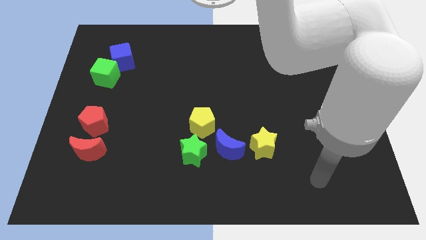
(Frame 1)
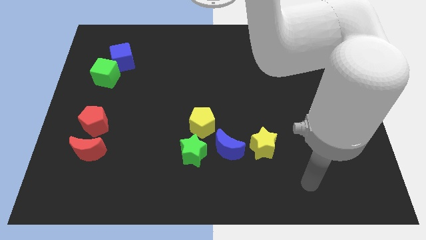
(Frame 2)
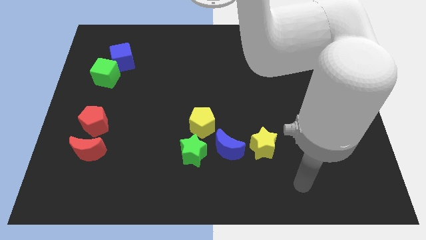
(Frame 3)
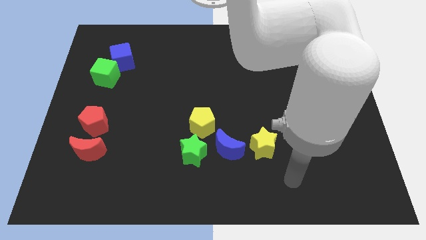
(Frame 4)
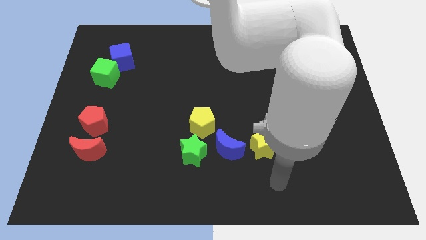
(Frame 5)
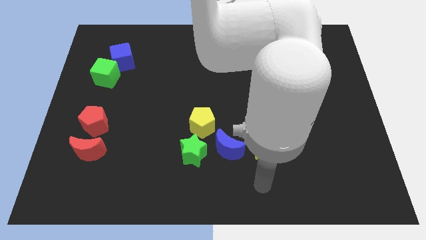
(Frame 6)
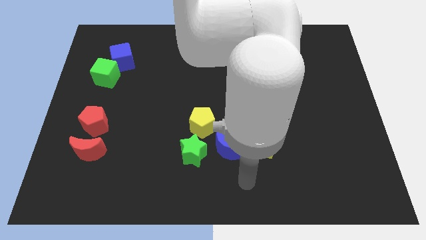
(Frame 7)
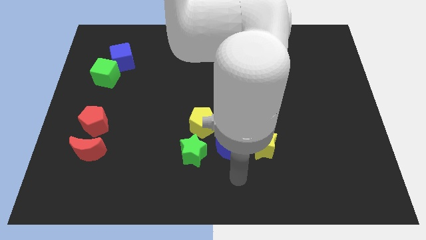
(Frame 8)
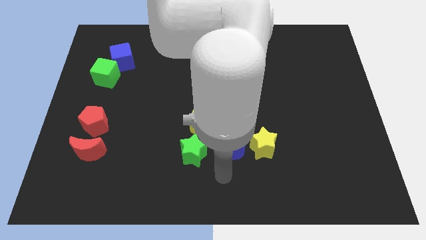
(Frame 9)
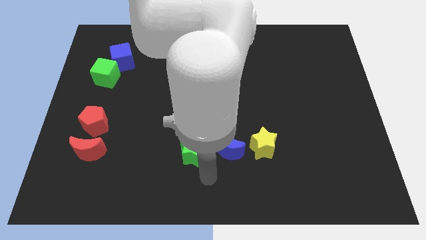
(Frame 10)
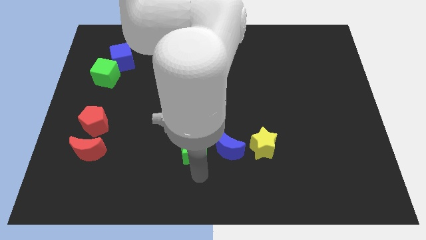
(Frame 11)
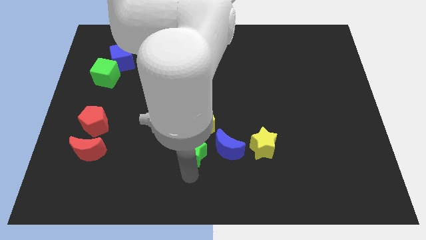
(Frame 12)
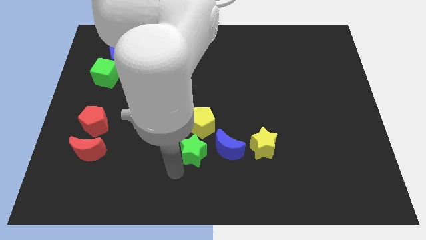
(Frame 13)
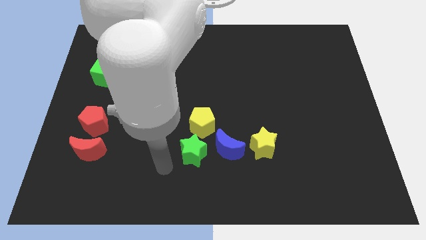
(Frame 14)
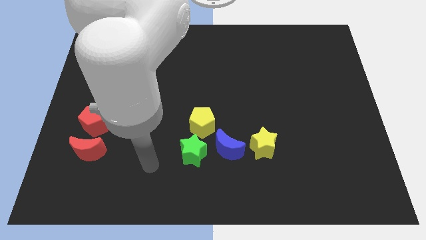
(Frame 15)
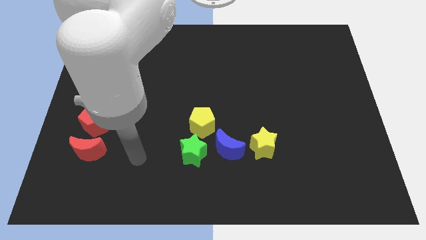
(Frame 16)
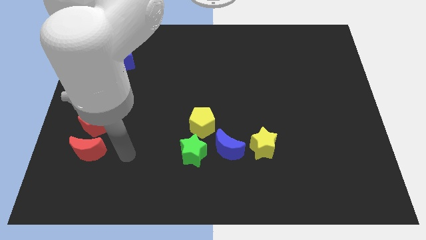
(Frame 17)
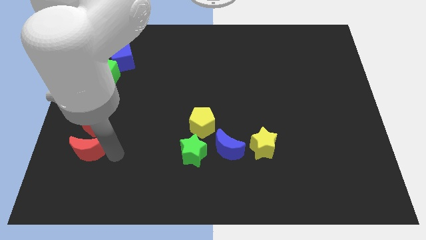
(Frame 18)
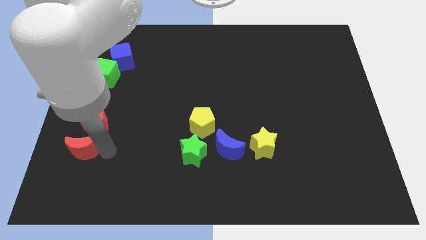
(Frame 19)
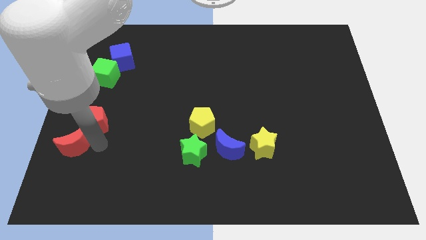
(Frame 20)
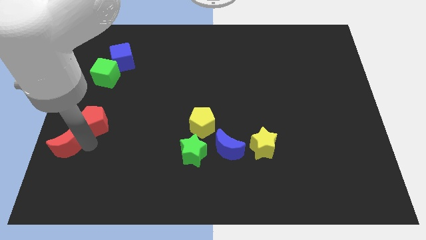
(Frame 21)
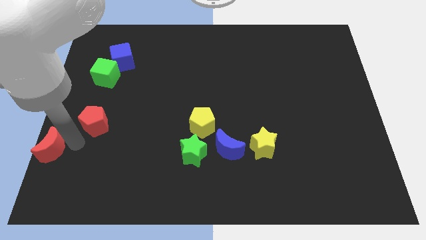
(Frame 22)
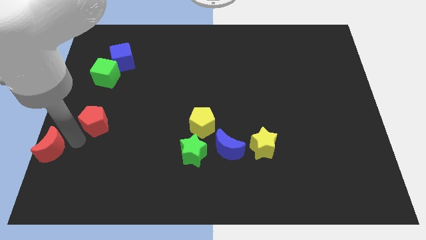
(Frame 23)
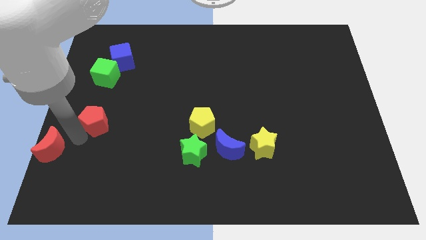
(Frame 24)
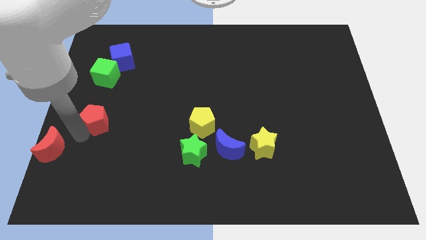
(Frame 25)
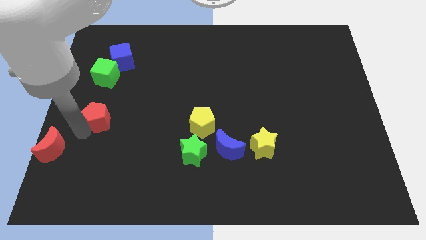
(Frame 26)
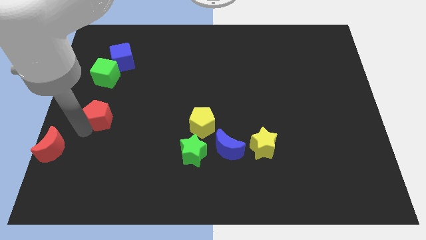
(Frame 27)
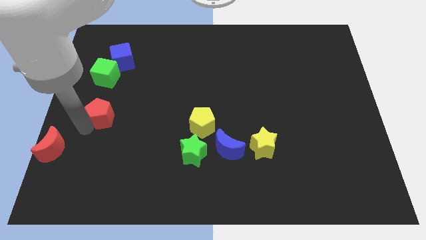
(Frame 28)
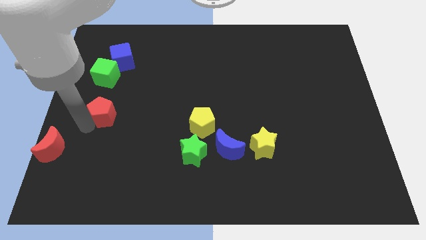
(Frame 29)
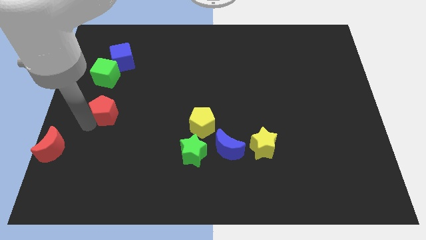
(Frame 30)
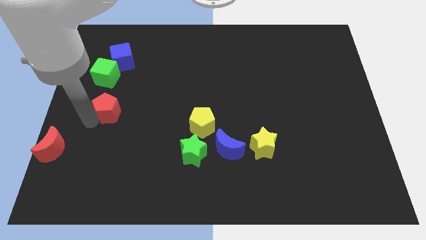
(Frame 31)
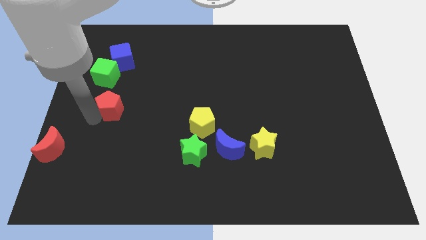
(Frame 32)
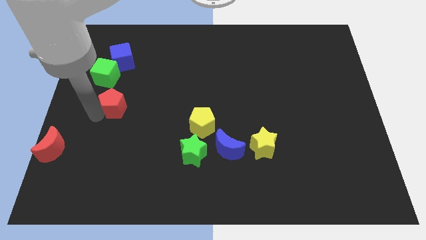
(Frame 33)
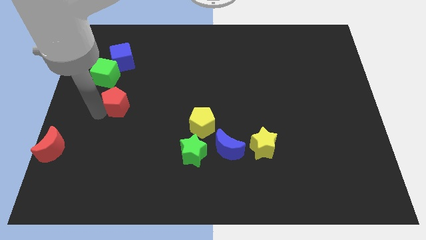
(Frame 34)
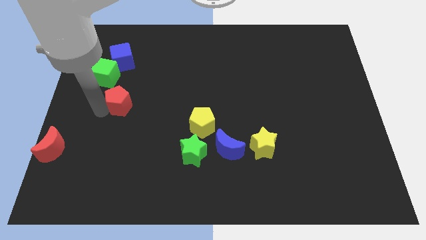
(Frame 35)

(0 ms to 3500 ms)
slightly move the red pentagon upwards and right diagonally

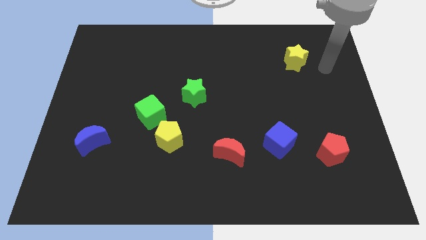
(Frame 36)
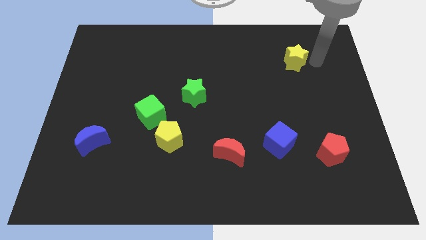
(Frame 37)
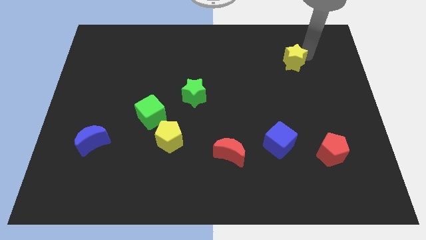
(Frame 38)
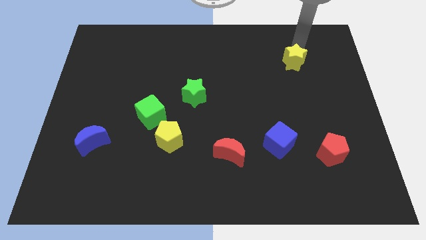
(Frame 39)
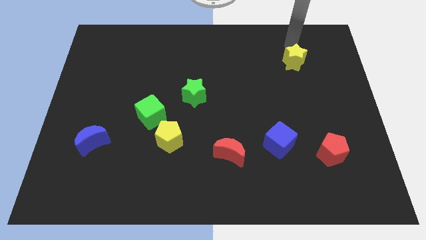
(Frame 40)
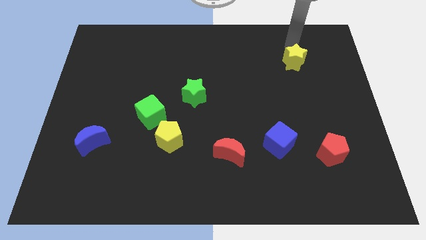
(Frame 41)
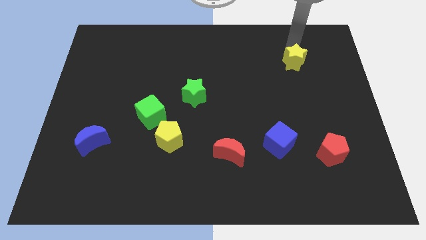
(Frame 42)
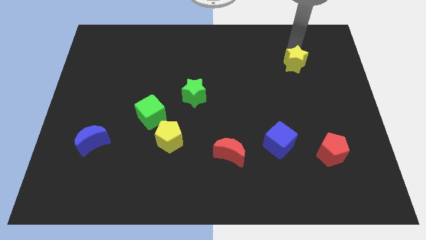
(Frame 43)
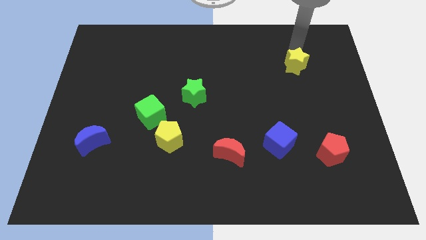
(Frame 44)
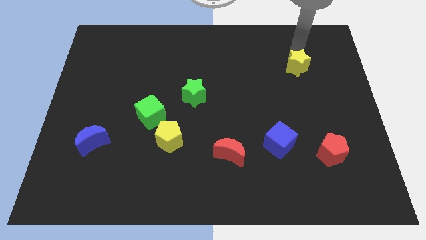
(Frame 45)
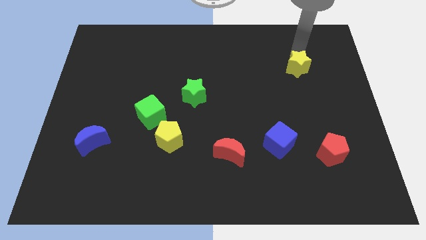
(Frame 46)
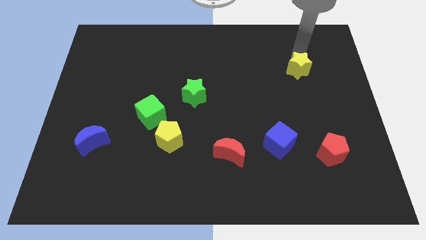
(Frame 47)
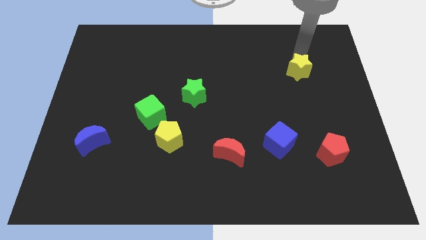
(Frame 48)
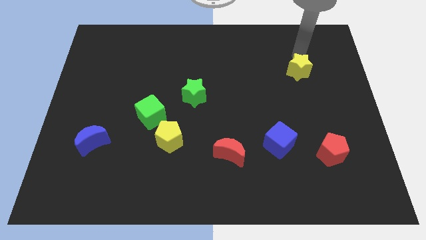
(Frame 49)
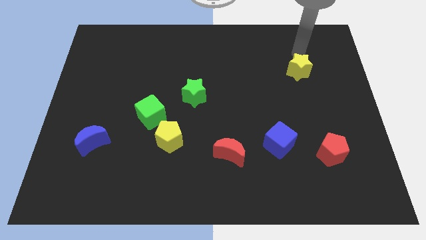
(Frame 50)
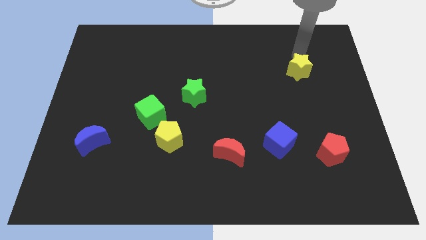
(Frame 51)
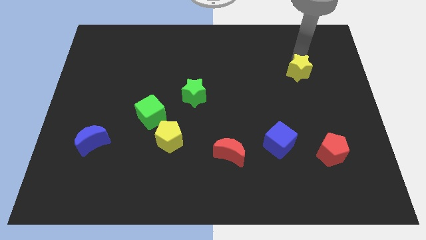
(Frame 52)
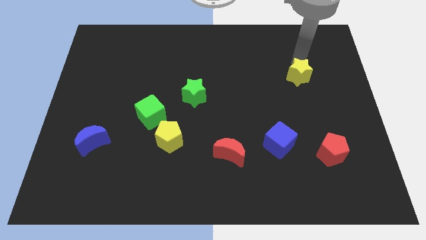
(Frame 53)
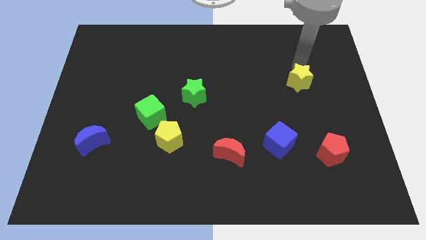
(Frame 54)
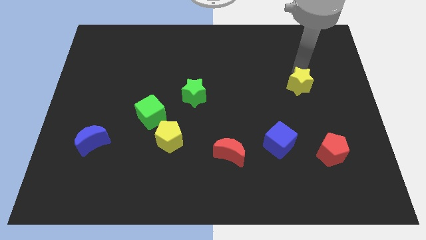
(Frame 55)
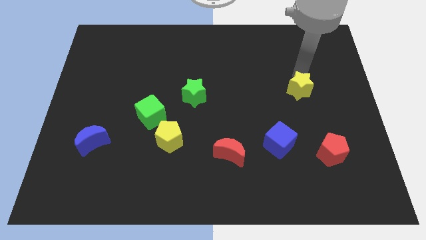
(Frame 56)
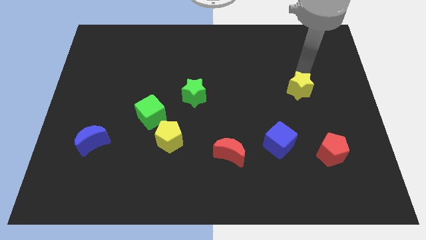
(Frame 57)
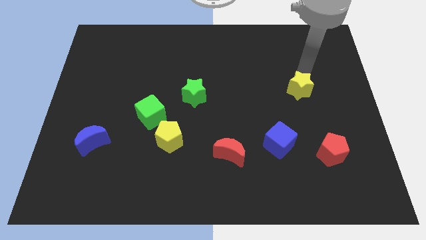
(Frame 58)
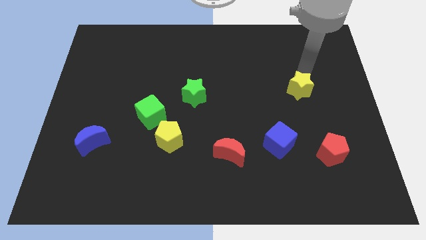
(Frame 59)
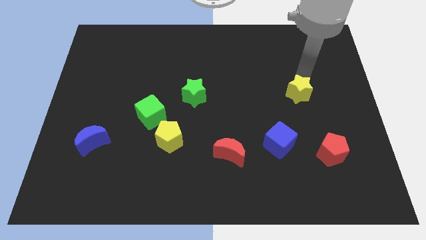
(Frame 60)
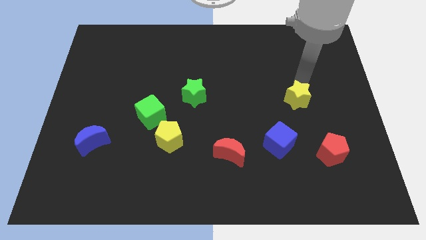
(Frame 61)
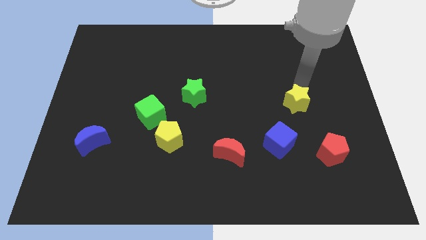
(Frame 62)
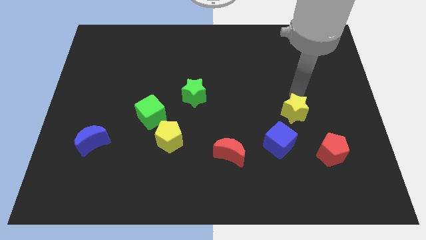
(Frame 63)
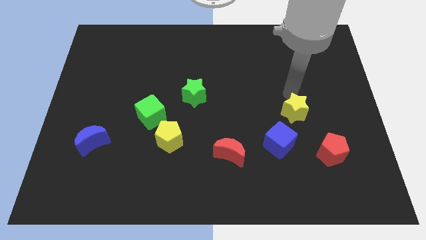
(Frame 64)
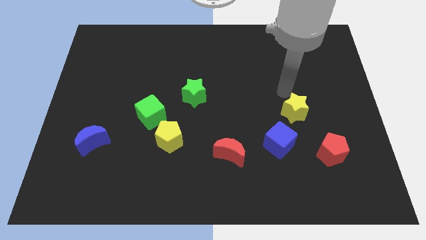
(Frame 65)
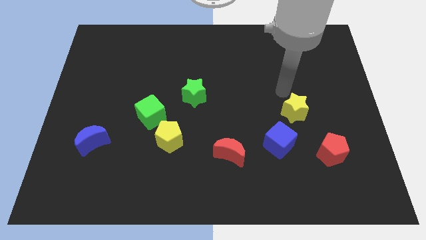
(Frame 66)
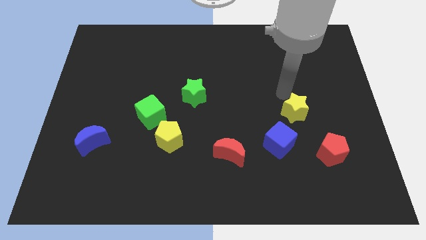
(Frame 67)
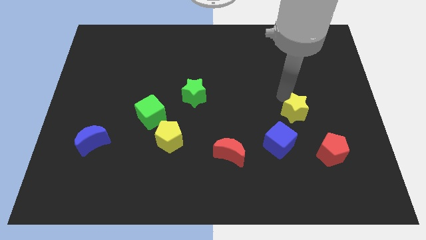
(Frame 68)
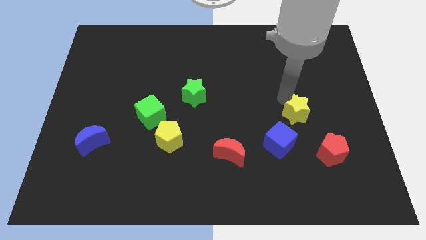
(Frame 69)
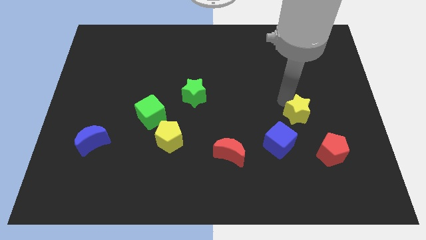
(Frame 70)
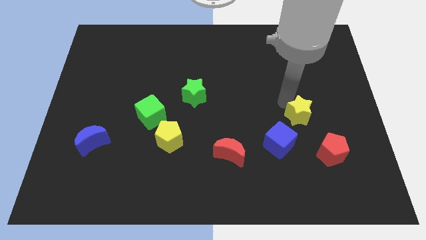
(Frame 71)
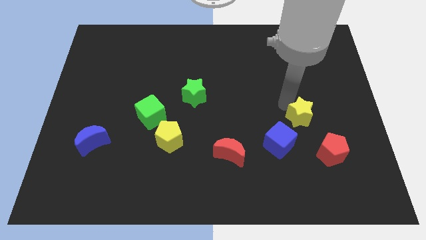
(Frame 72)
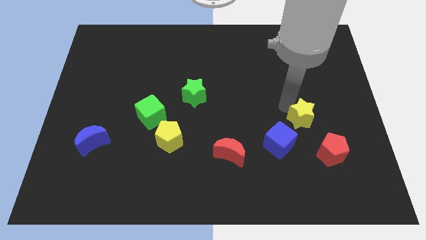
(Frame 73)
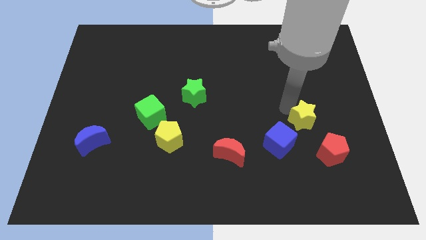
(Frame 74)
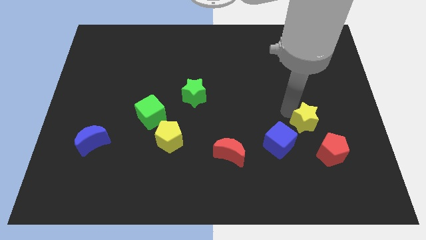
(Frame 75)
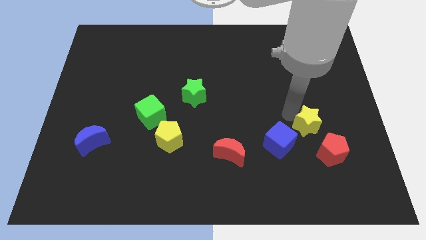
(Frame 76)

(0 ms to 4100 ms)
move the yellow star down

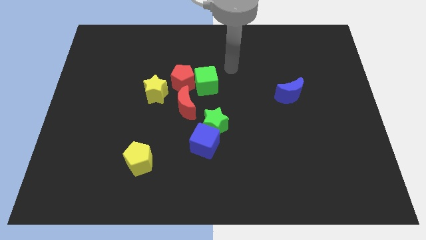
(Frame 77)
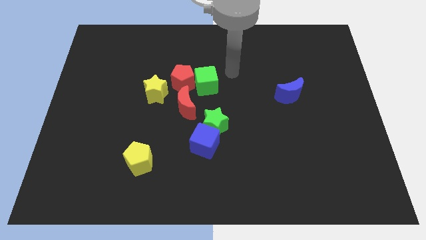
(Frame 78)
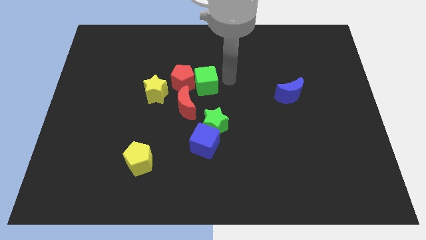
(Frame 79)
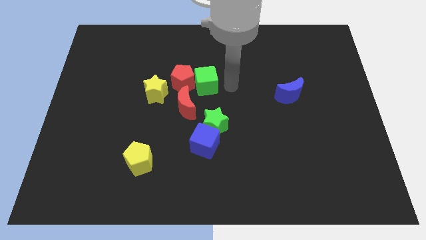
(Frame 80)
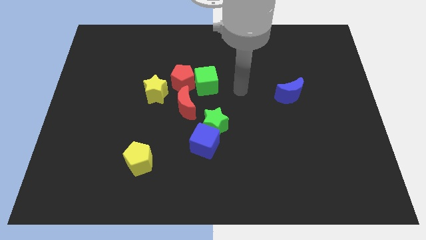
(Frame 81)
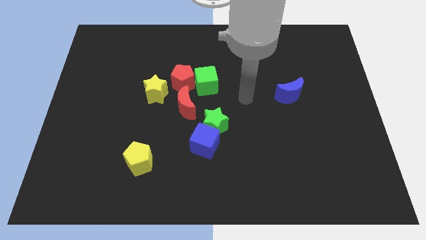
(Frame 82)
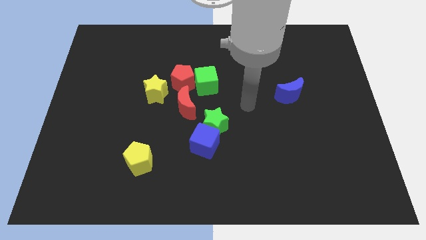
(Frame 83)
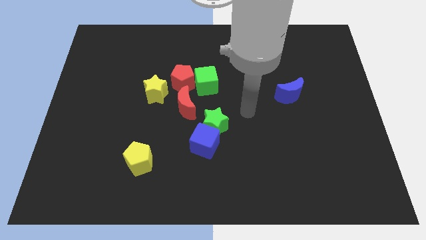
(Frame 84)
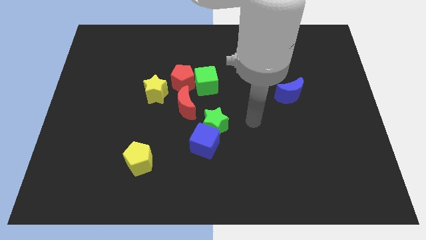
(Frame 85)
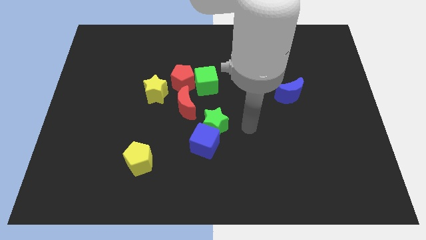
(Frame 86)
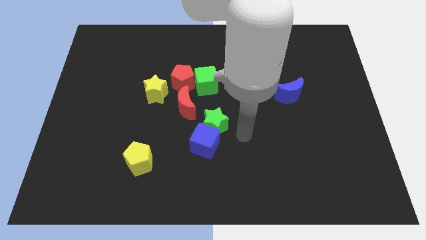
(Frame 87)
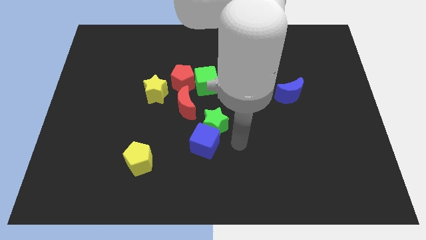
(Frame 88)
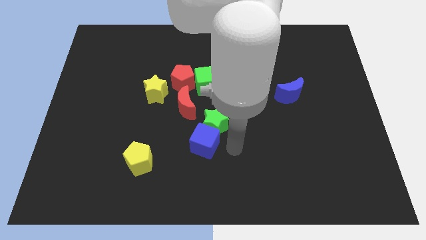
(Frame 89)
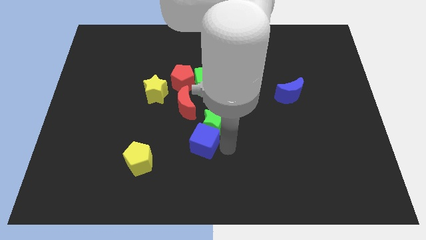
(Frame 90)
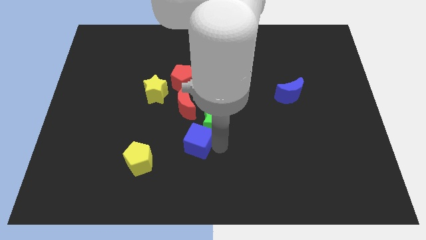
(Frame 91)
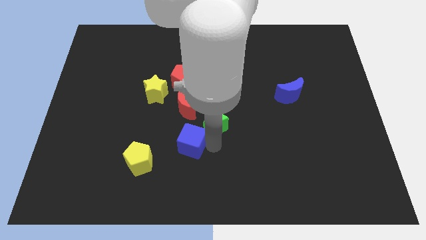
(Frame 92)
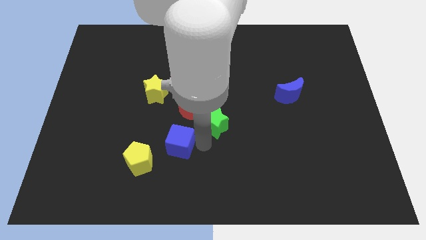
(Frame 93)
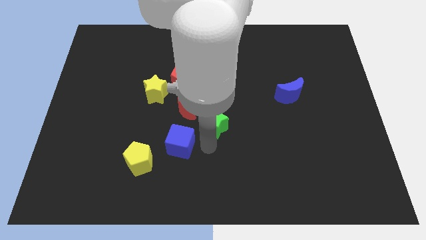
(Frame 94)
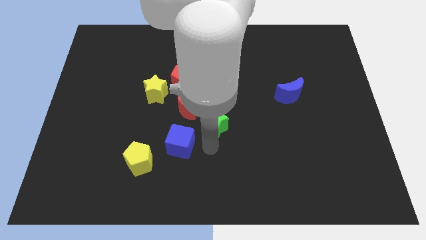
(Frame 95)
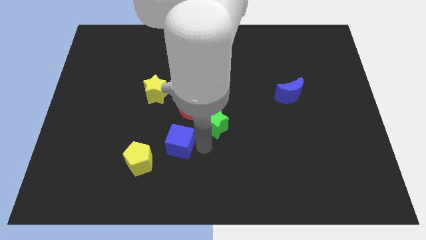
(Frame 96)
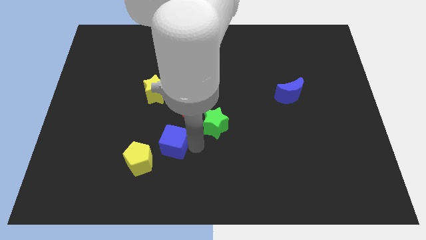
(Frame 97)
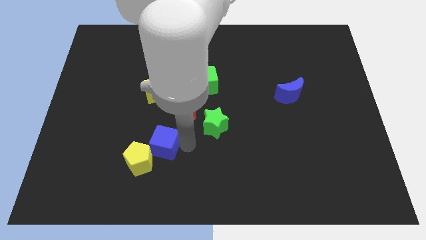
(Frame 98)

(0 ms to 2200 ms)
move the blue cube somewhat to the left
